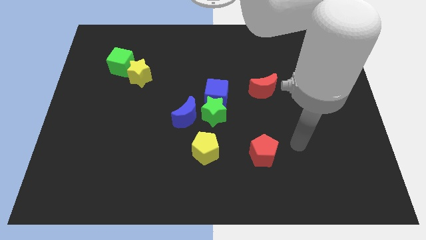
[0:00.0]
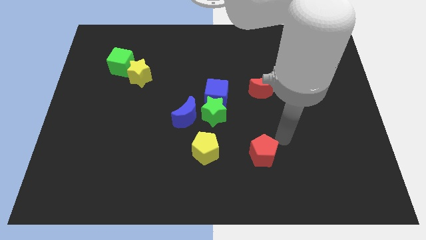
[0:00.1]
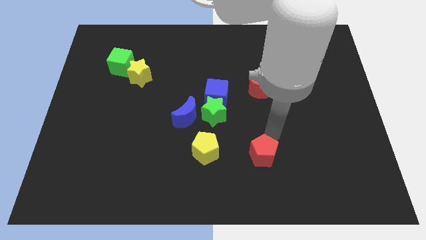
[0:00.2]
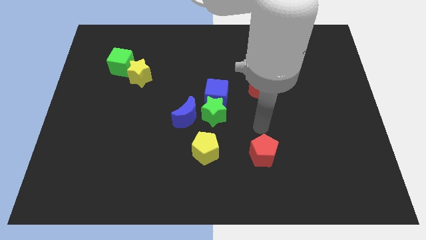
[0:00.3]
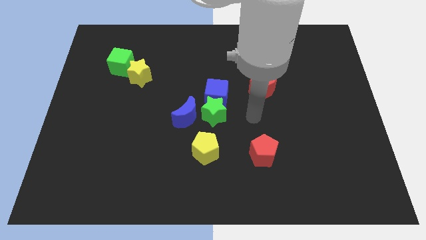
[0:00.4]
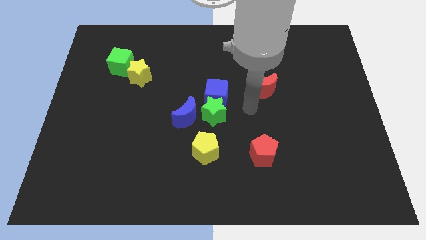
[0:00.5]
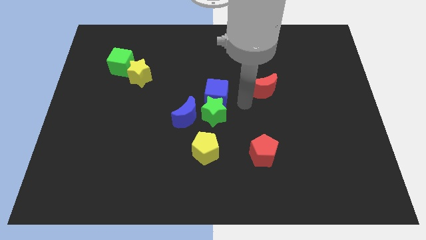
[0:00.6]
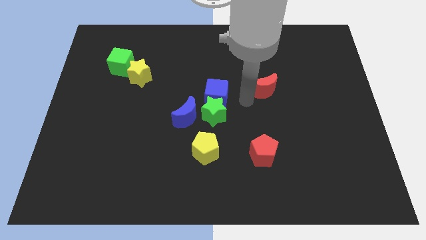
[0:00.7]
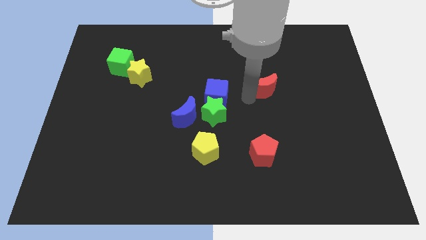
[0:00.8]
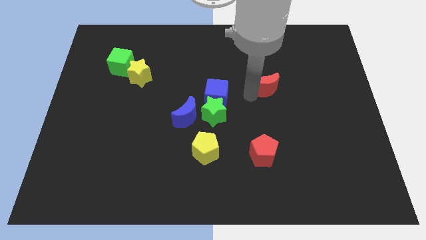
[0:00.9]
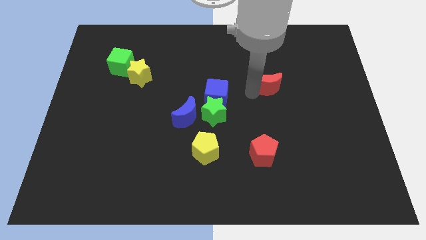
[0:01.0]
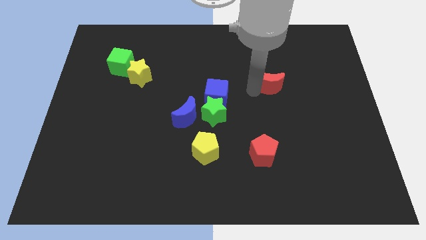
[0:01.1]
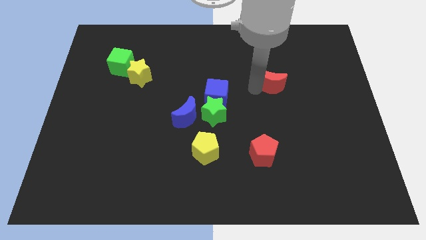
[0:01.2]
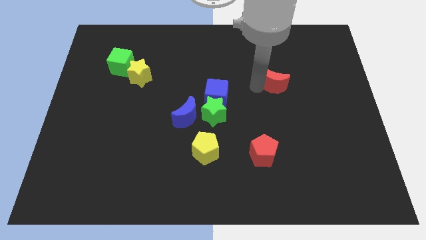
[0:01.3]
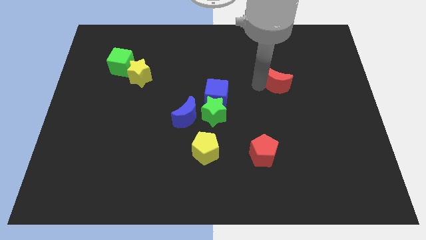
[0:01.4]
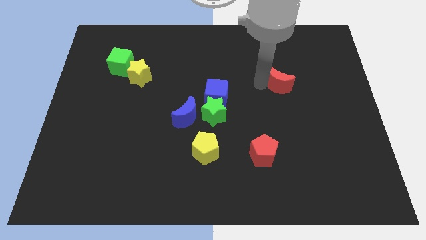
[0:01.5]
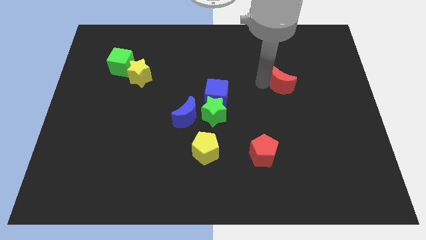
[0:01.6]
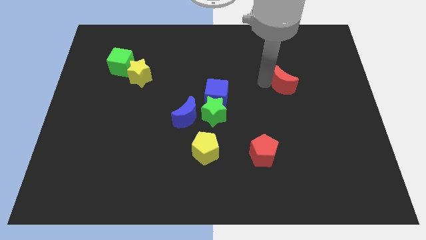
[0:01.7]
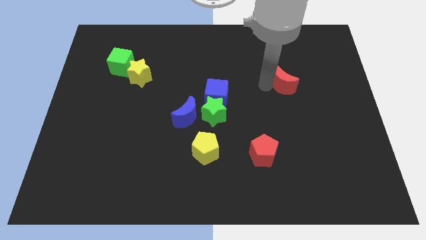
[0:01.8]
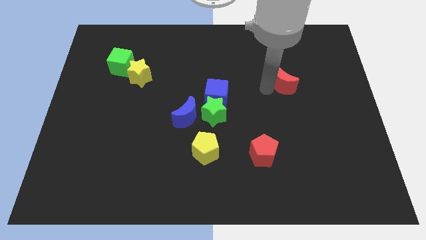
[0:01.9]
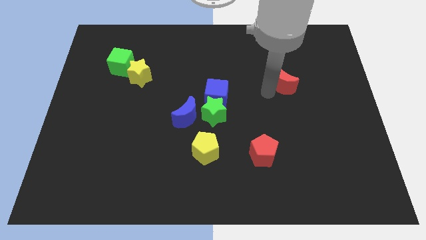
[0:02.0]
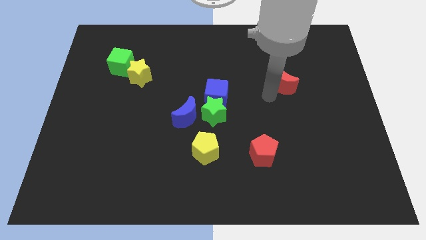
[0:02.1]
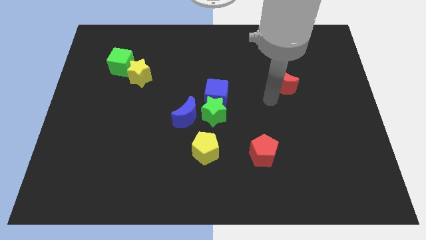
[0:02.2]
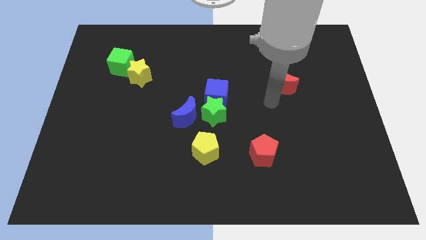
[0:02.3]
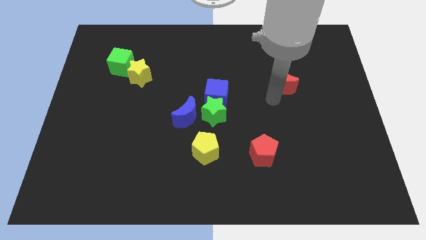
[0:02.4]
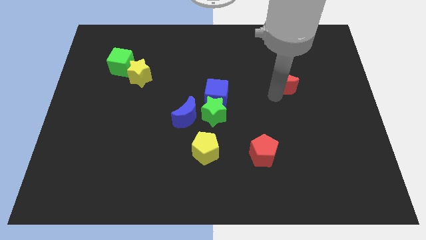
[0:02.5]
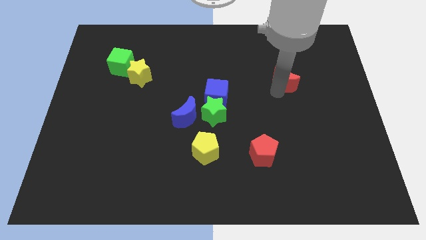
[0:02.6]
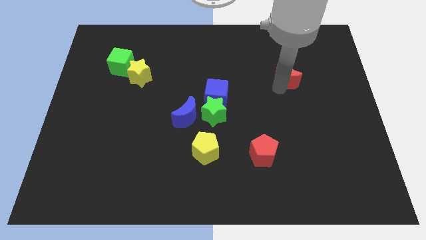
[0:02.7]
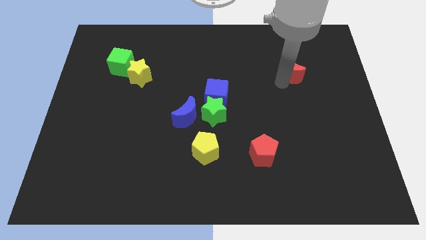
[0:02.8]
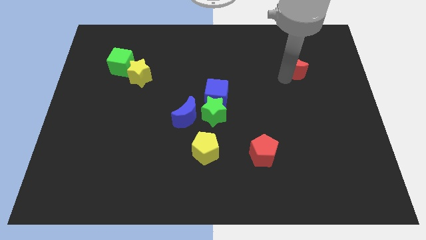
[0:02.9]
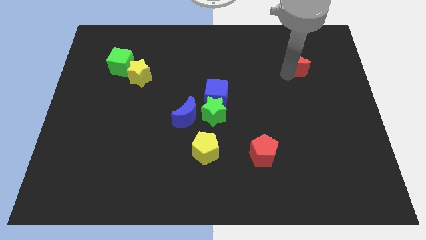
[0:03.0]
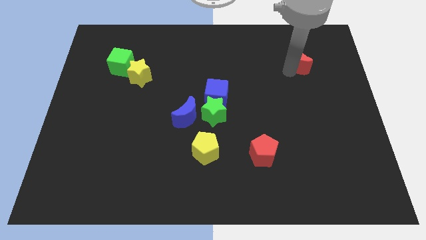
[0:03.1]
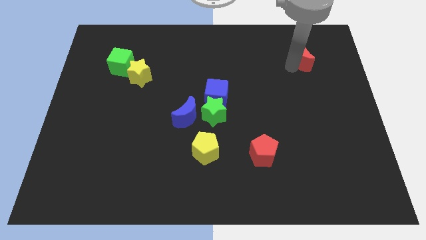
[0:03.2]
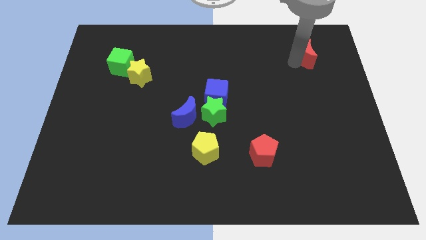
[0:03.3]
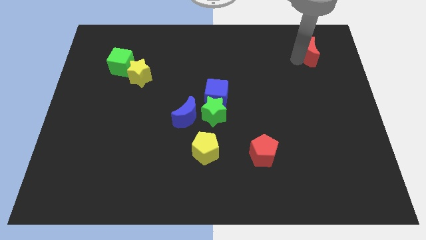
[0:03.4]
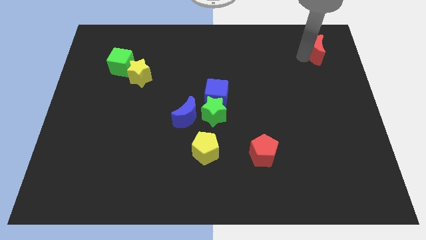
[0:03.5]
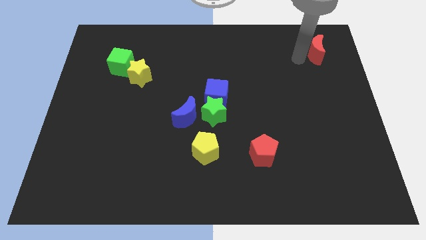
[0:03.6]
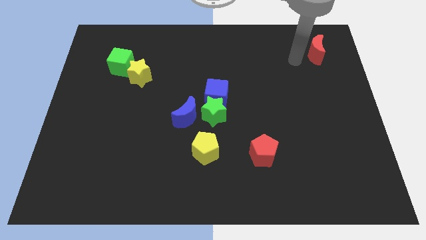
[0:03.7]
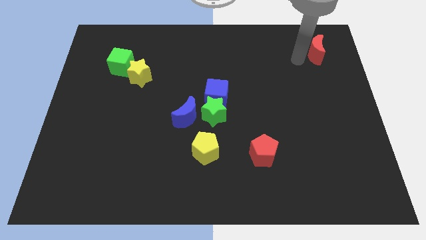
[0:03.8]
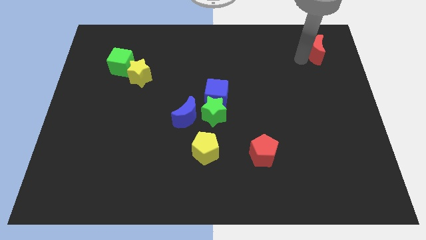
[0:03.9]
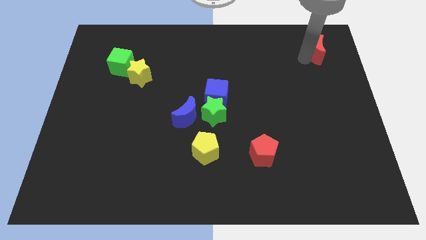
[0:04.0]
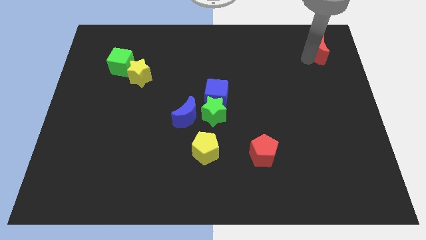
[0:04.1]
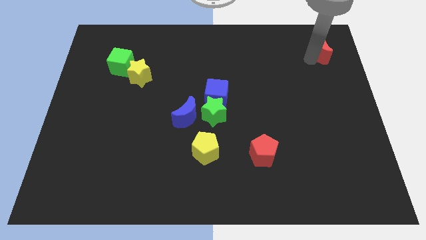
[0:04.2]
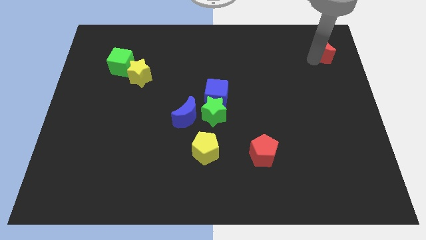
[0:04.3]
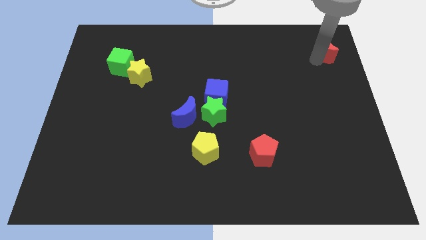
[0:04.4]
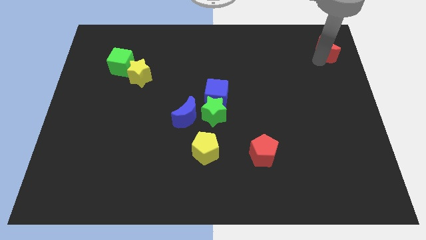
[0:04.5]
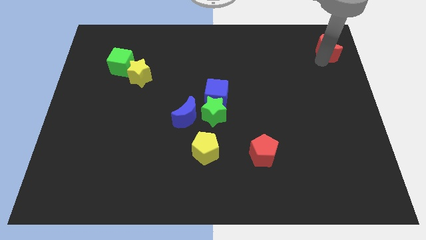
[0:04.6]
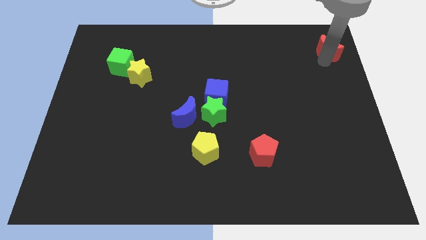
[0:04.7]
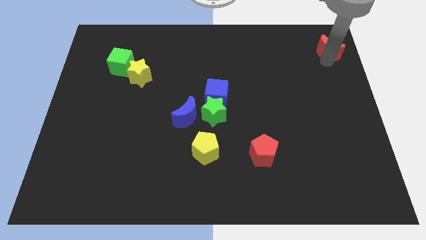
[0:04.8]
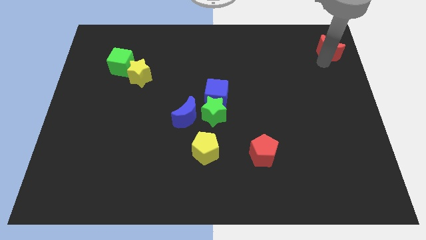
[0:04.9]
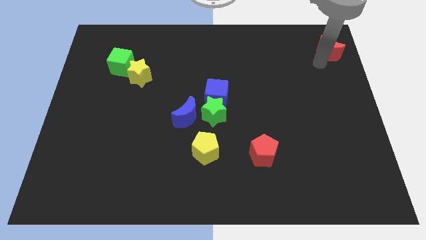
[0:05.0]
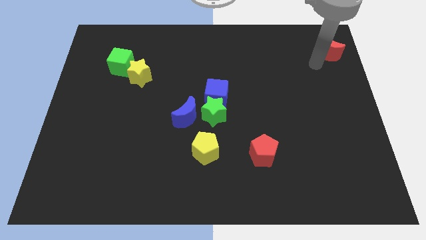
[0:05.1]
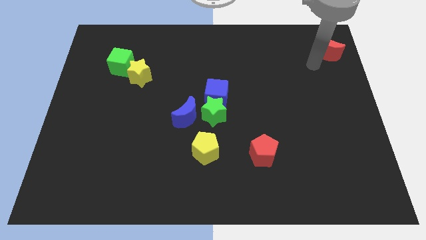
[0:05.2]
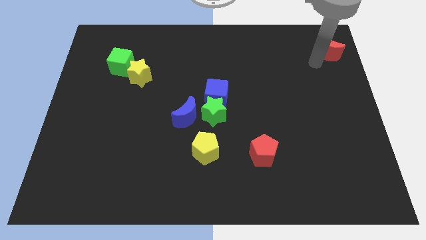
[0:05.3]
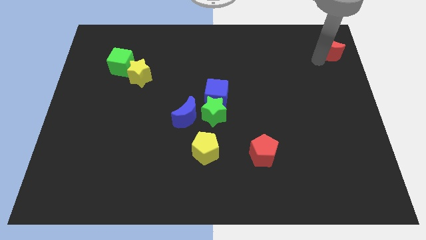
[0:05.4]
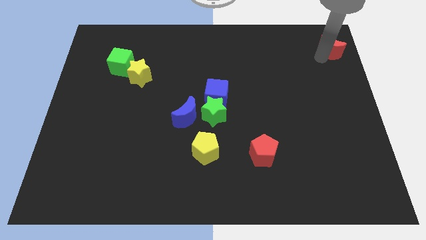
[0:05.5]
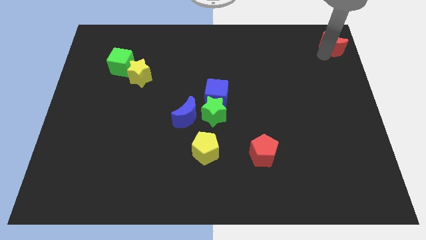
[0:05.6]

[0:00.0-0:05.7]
slide the red moon to the top right corner

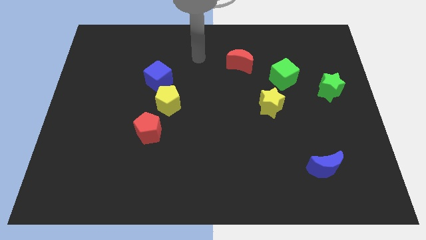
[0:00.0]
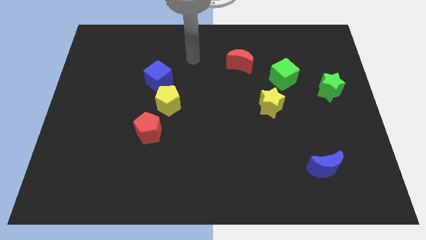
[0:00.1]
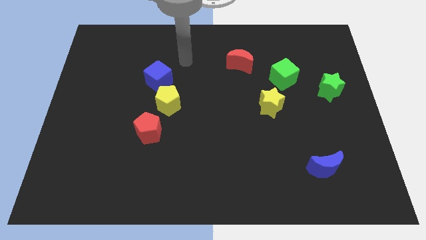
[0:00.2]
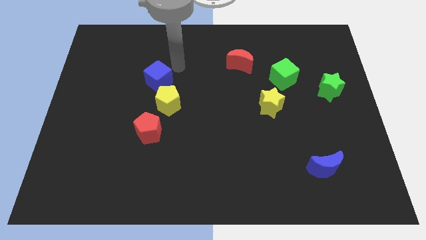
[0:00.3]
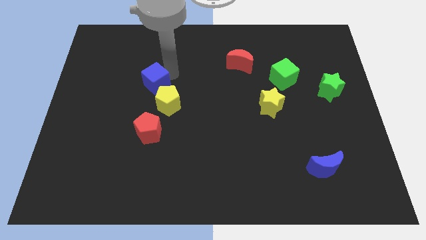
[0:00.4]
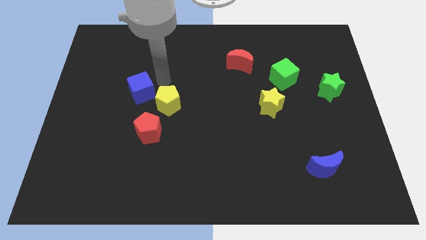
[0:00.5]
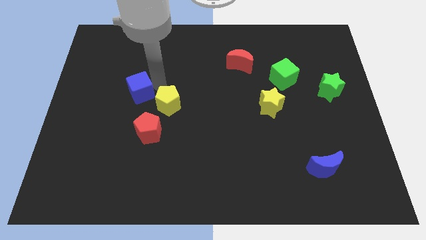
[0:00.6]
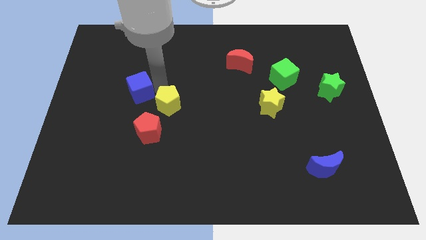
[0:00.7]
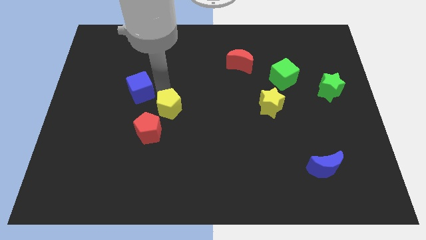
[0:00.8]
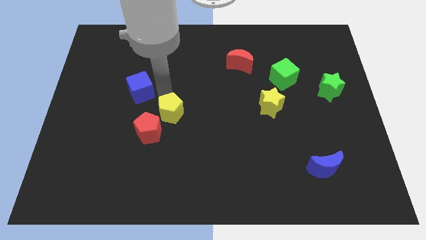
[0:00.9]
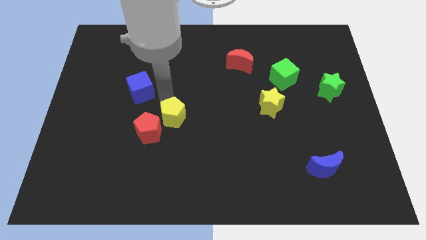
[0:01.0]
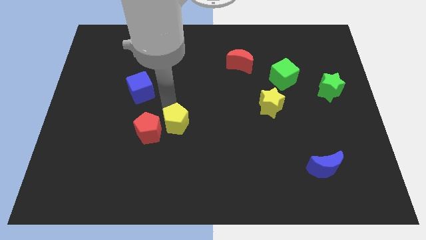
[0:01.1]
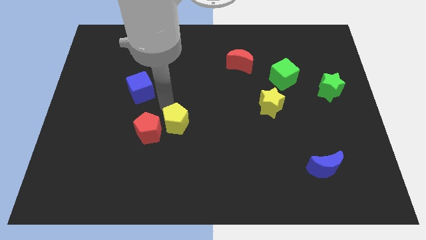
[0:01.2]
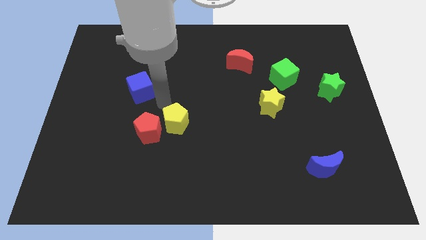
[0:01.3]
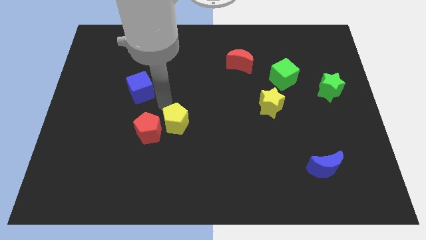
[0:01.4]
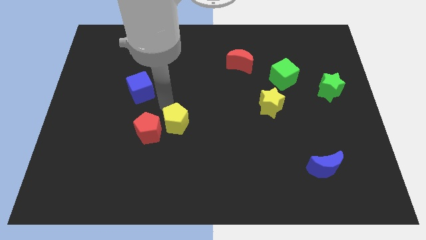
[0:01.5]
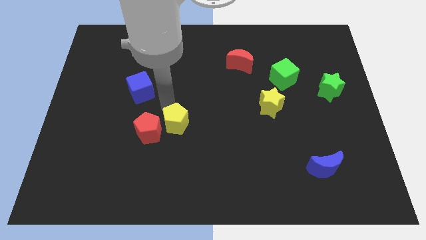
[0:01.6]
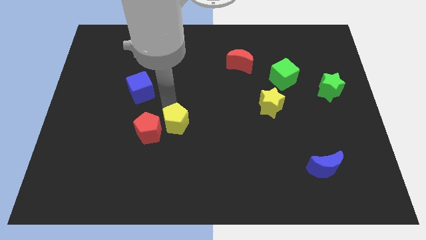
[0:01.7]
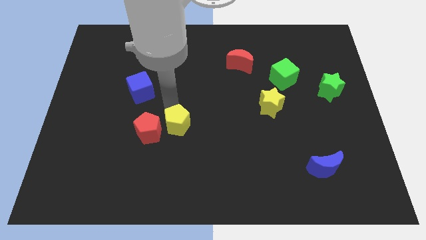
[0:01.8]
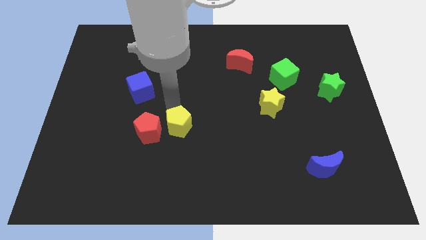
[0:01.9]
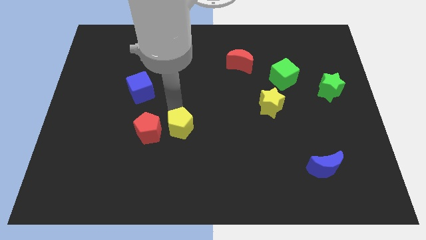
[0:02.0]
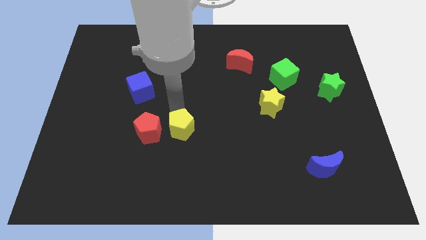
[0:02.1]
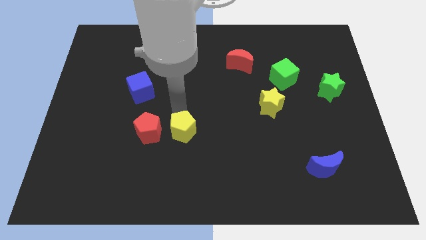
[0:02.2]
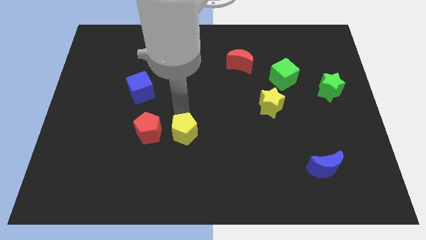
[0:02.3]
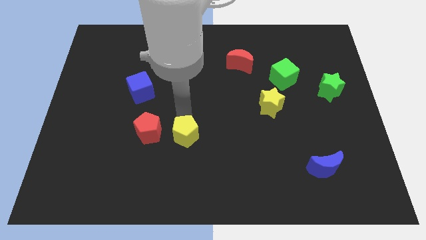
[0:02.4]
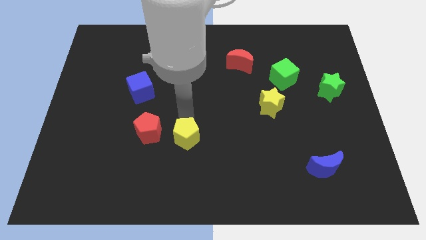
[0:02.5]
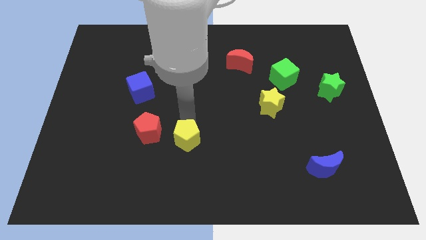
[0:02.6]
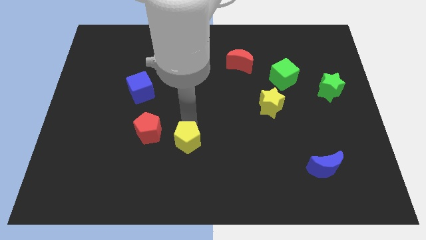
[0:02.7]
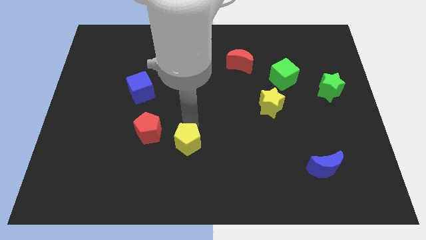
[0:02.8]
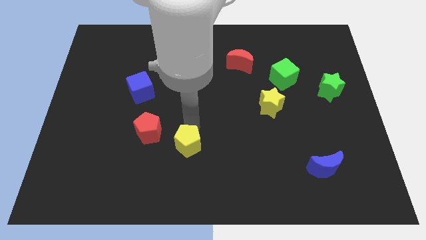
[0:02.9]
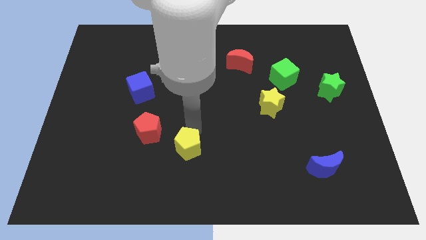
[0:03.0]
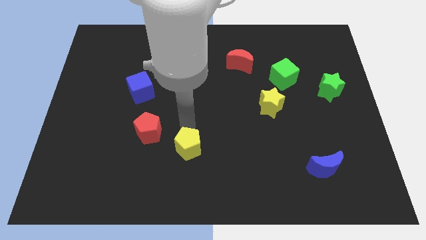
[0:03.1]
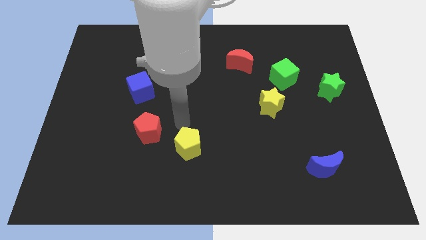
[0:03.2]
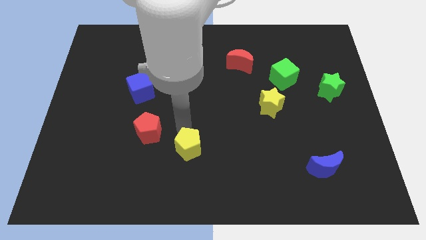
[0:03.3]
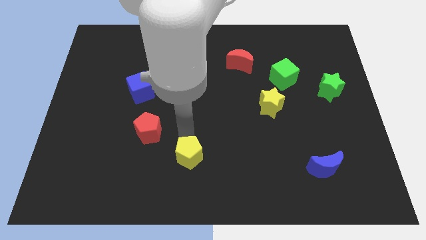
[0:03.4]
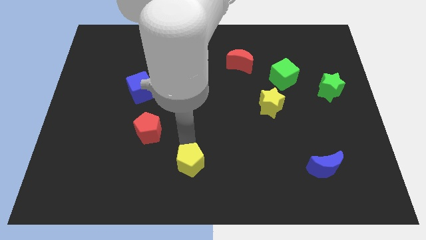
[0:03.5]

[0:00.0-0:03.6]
move the yellow pentagon to the bottom
